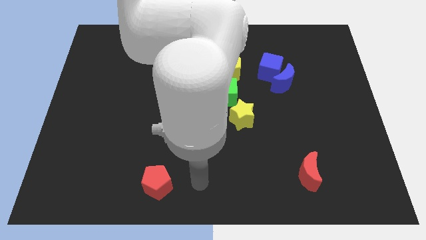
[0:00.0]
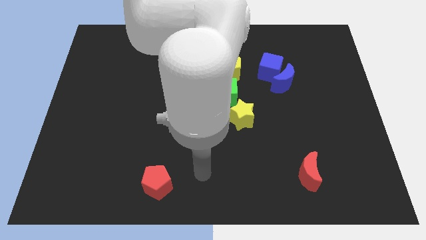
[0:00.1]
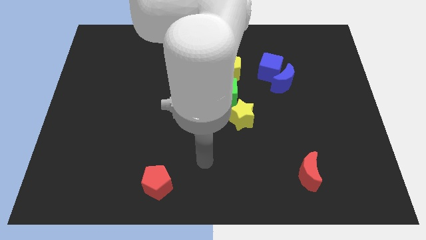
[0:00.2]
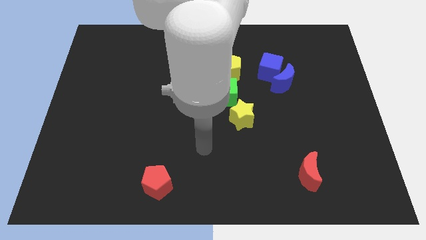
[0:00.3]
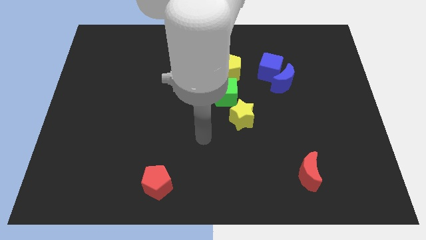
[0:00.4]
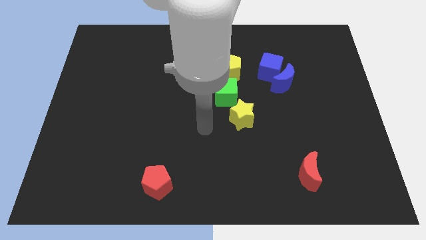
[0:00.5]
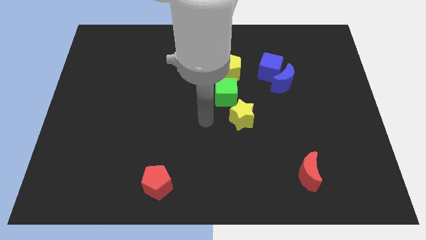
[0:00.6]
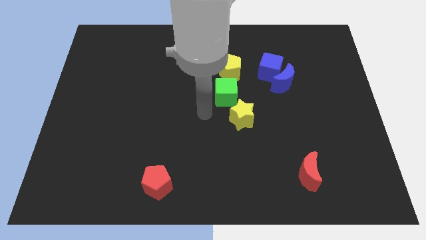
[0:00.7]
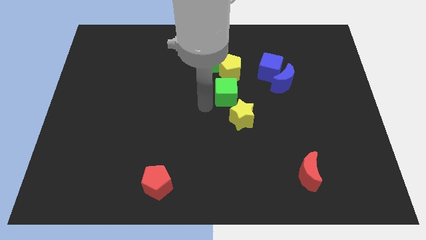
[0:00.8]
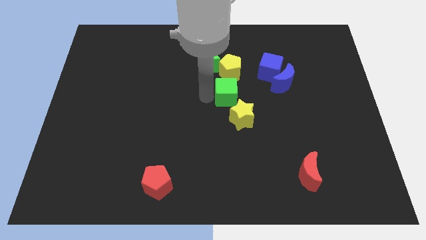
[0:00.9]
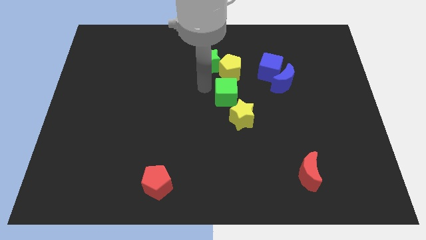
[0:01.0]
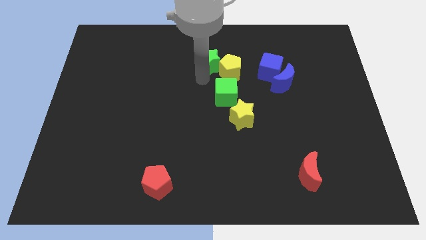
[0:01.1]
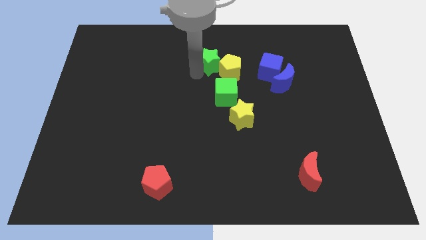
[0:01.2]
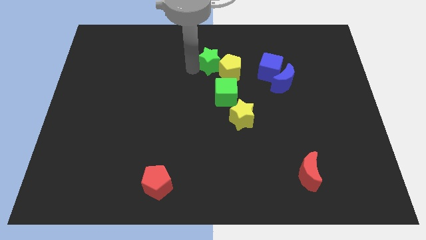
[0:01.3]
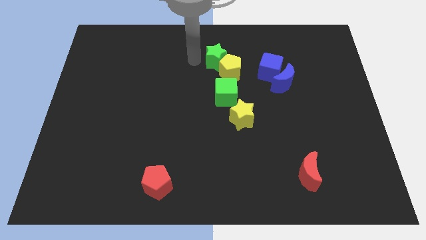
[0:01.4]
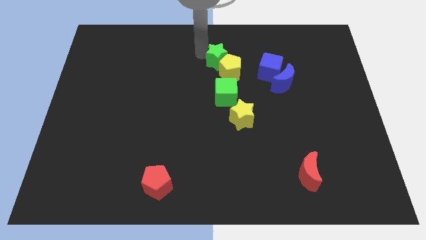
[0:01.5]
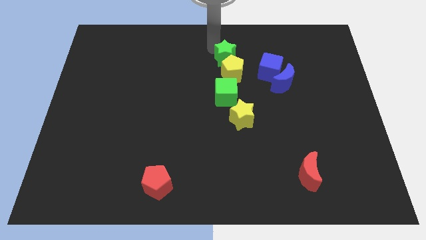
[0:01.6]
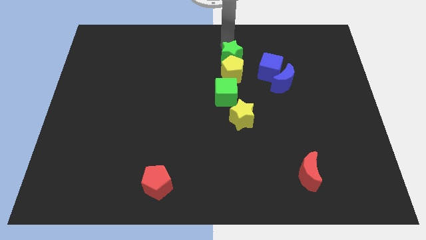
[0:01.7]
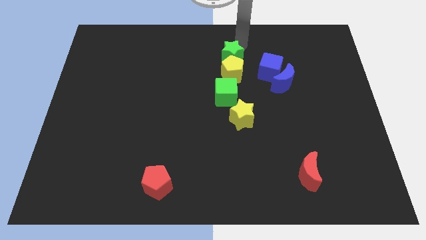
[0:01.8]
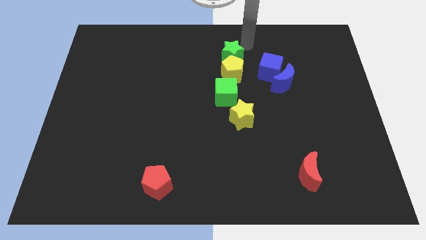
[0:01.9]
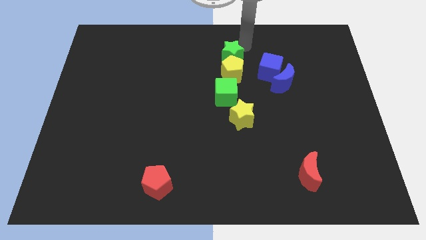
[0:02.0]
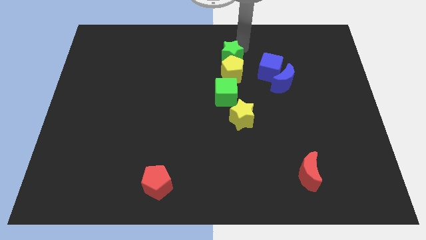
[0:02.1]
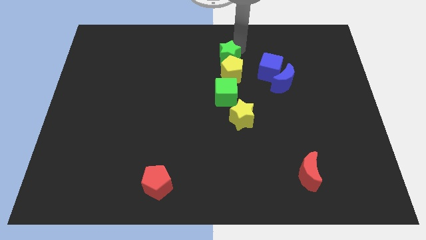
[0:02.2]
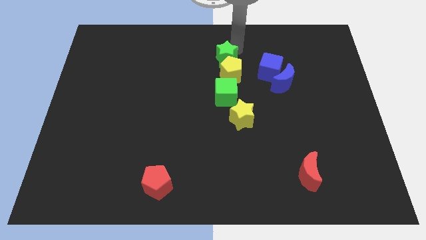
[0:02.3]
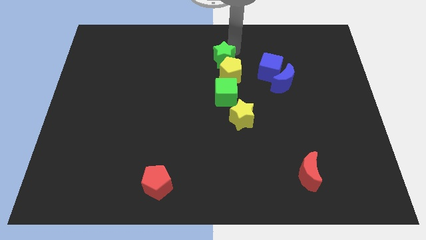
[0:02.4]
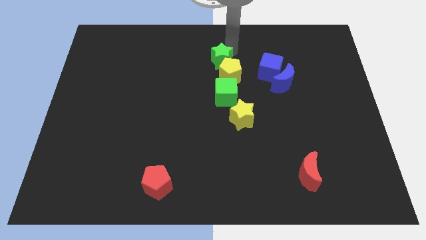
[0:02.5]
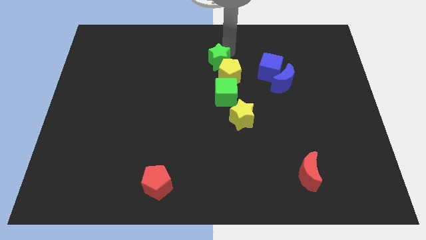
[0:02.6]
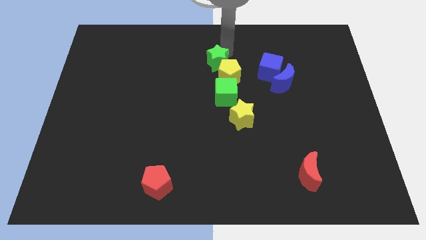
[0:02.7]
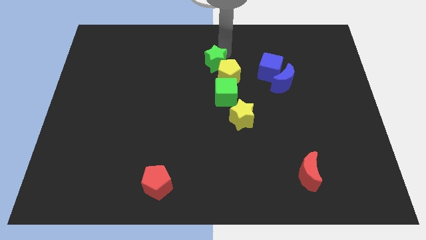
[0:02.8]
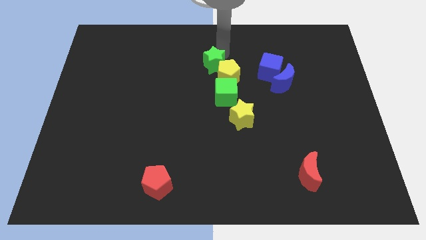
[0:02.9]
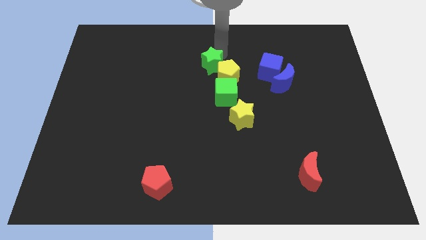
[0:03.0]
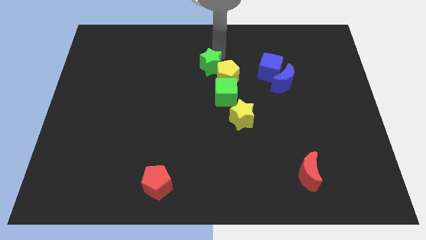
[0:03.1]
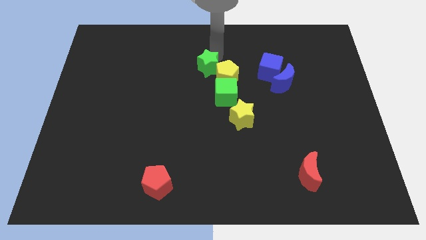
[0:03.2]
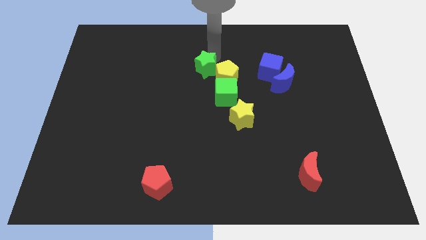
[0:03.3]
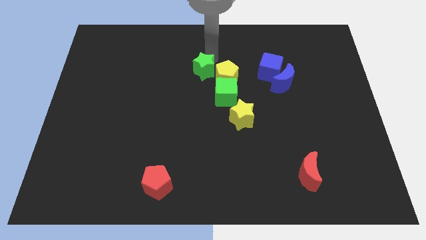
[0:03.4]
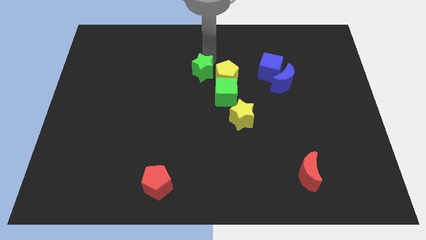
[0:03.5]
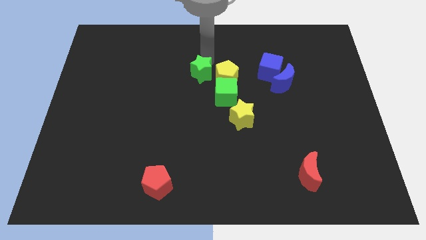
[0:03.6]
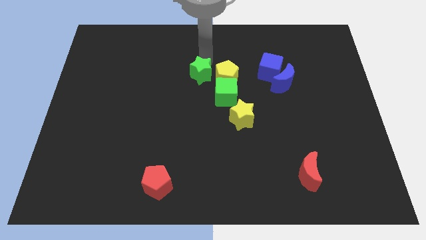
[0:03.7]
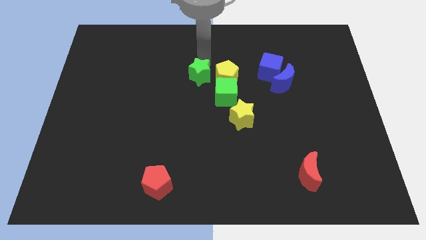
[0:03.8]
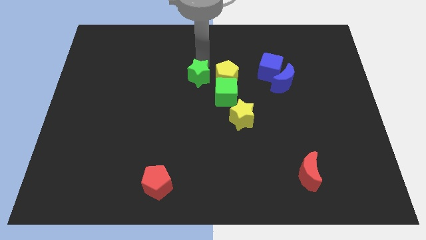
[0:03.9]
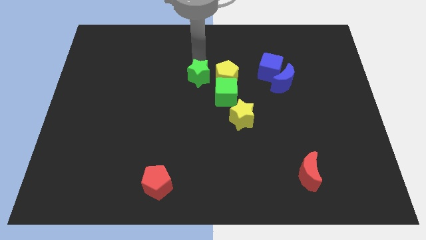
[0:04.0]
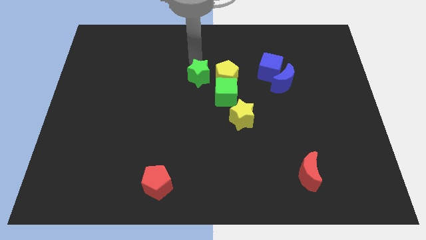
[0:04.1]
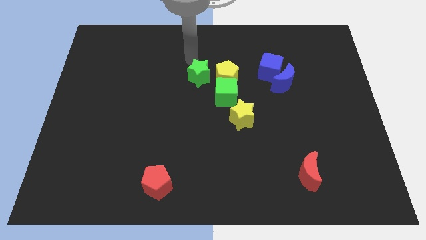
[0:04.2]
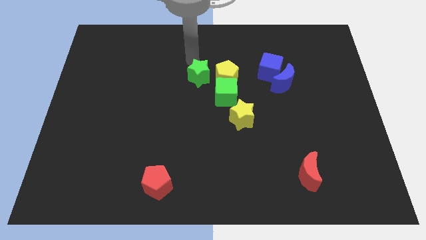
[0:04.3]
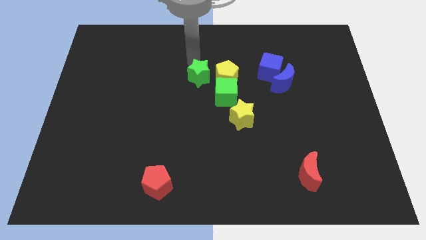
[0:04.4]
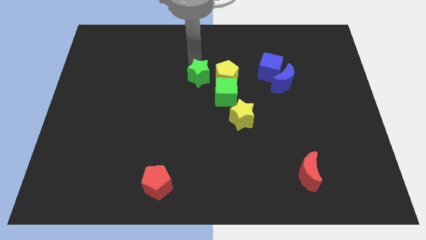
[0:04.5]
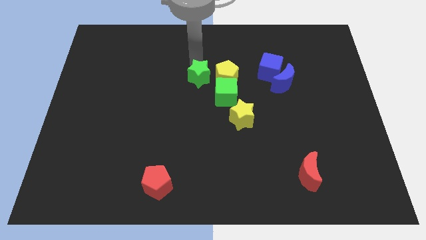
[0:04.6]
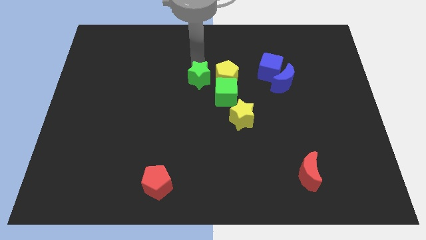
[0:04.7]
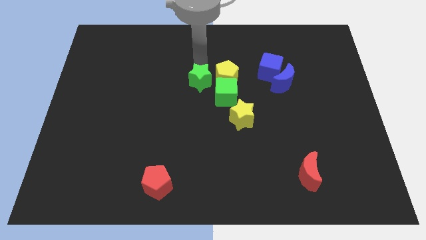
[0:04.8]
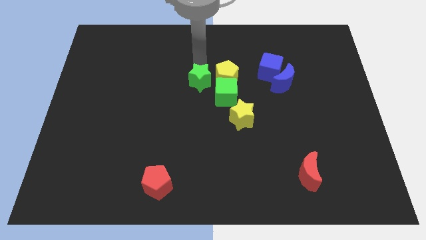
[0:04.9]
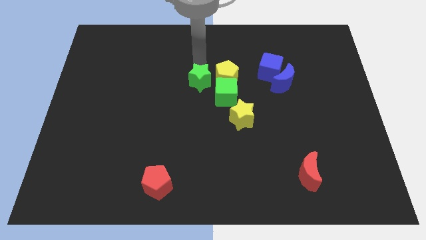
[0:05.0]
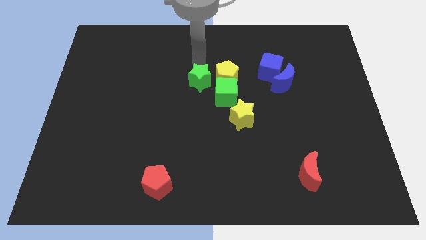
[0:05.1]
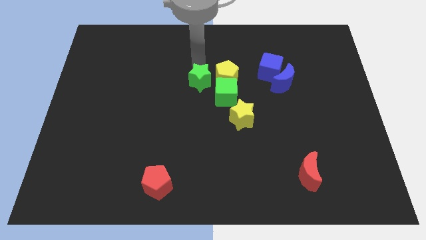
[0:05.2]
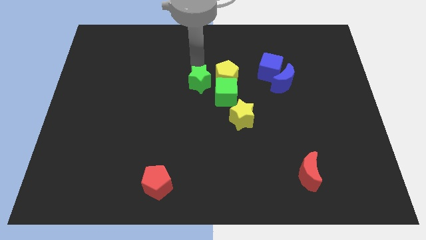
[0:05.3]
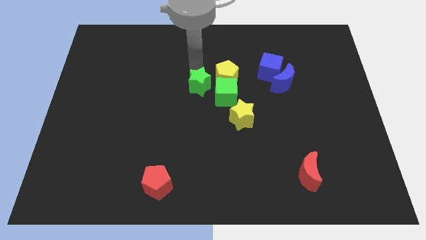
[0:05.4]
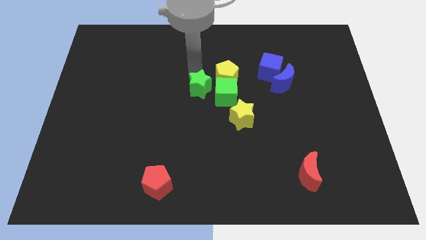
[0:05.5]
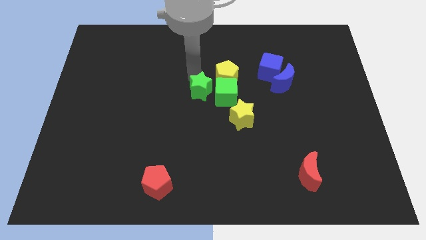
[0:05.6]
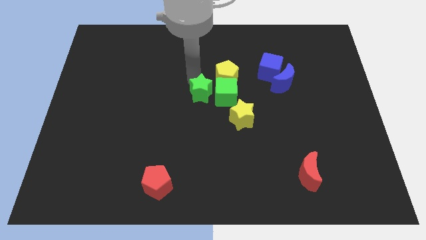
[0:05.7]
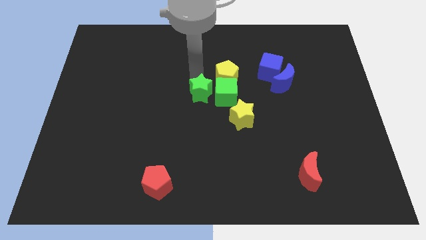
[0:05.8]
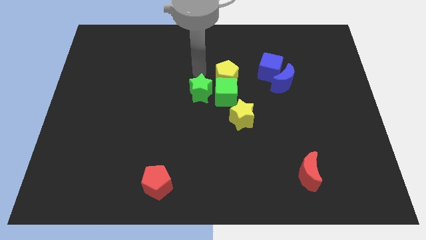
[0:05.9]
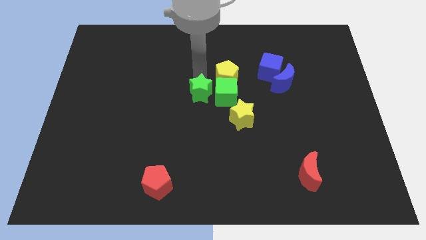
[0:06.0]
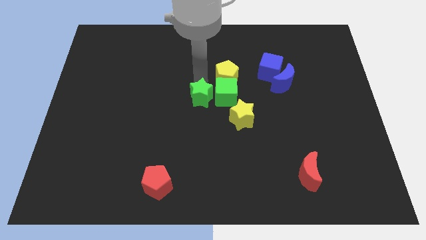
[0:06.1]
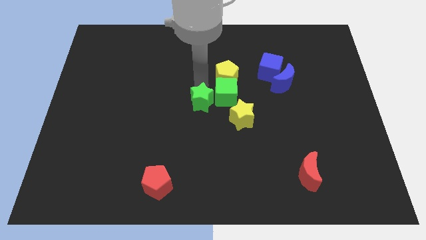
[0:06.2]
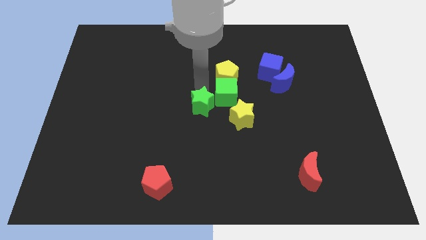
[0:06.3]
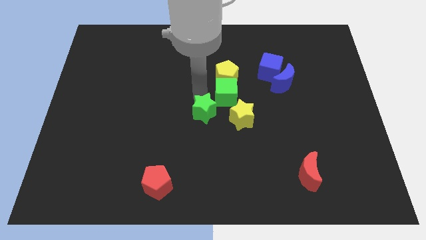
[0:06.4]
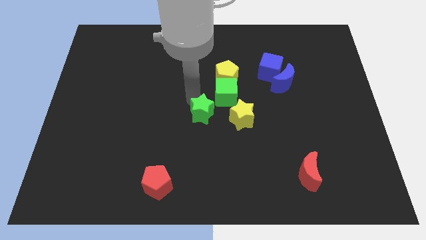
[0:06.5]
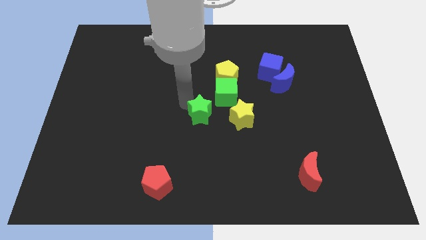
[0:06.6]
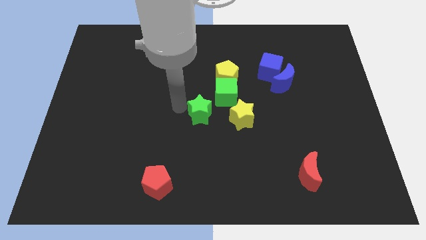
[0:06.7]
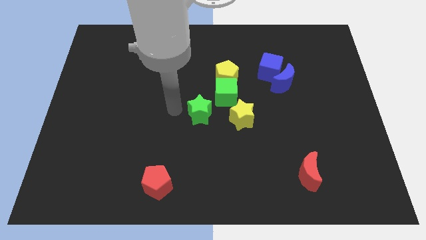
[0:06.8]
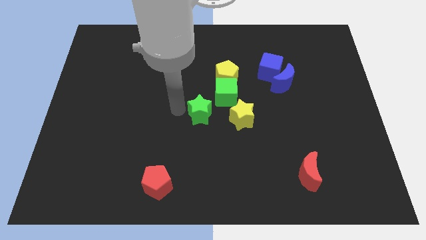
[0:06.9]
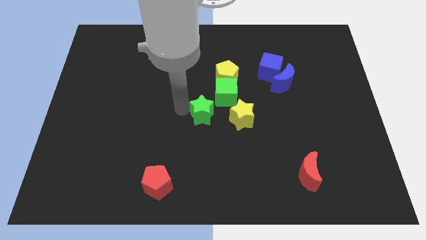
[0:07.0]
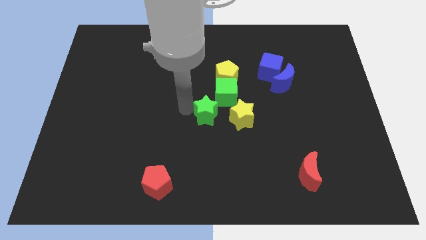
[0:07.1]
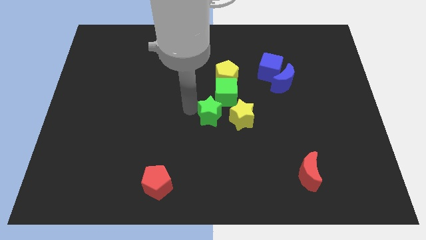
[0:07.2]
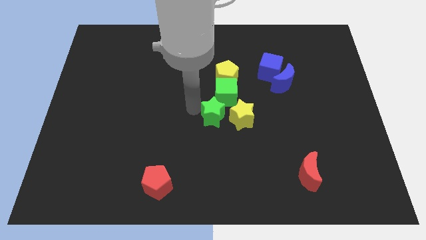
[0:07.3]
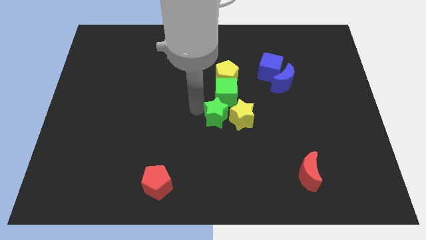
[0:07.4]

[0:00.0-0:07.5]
put the green star next to the yellow star
